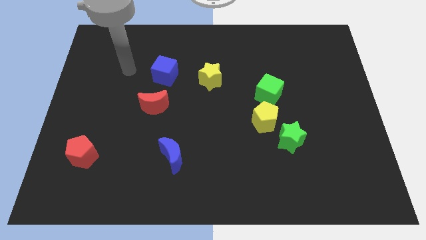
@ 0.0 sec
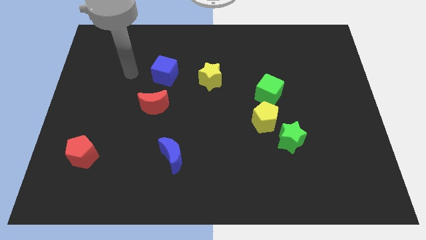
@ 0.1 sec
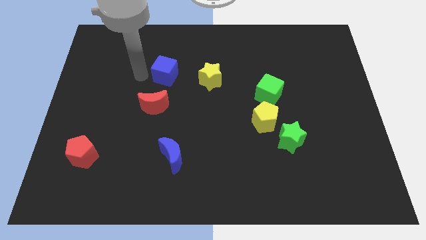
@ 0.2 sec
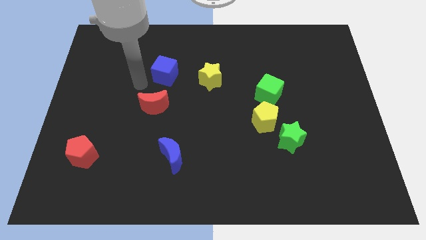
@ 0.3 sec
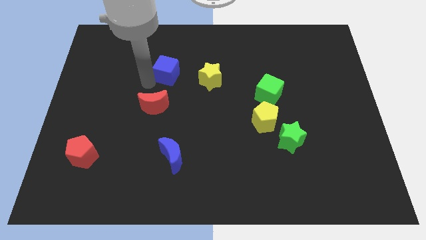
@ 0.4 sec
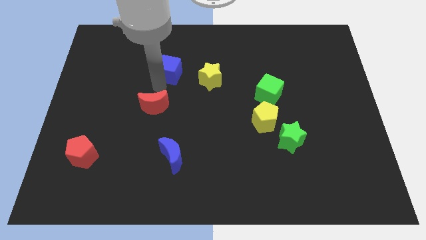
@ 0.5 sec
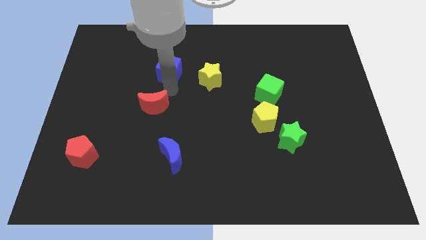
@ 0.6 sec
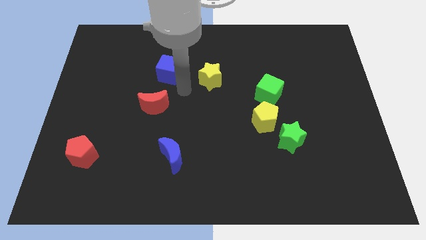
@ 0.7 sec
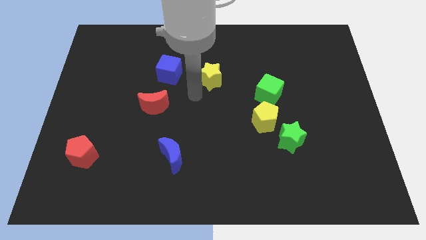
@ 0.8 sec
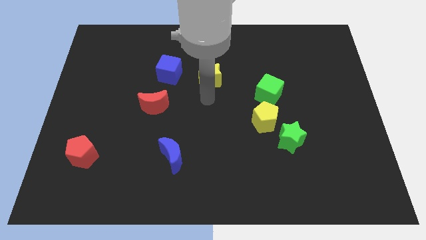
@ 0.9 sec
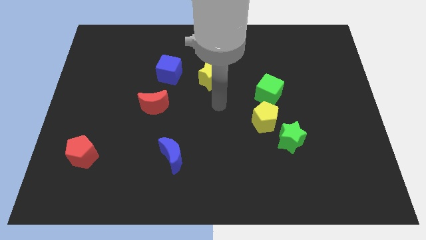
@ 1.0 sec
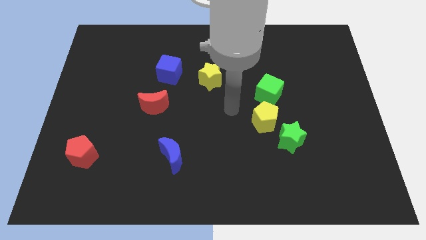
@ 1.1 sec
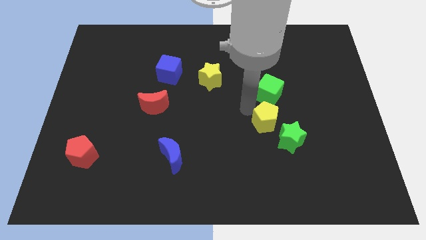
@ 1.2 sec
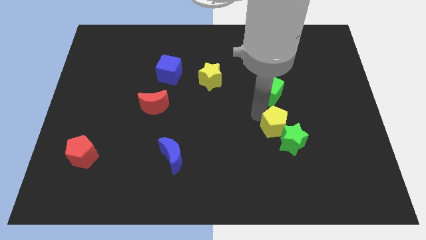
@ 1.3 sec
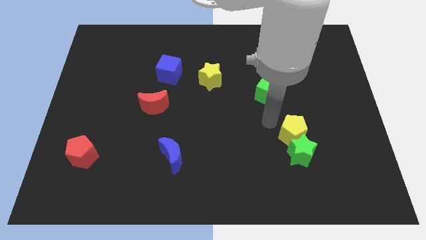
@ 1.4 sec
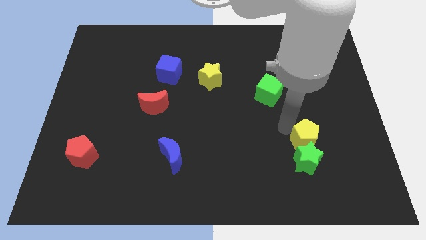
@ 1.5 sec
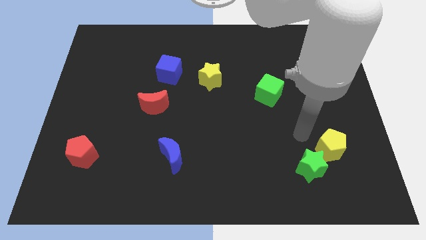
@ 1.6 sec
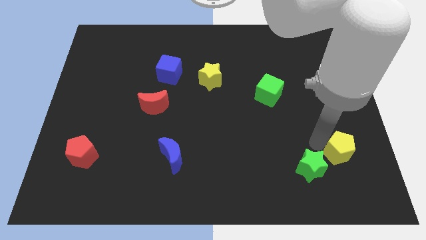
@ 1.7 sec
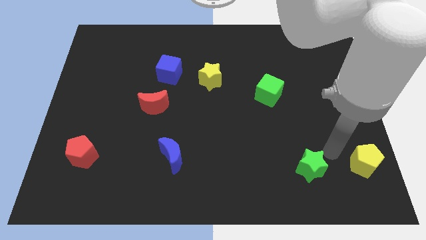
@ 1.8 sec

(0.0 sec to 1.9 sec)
move the green star away from the yellow pentagon

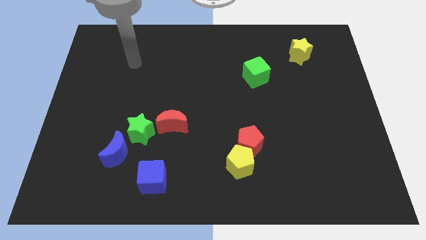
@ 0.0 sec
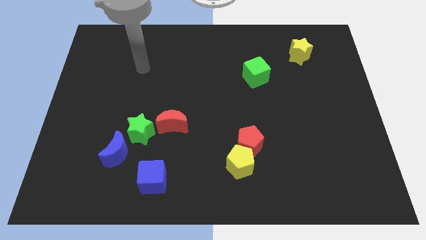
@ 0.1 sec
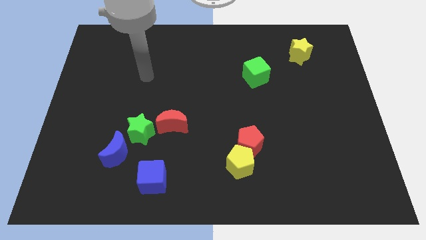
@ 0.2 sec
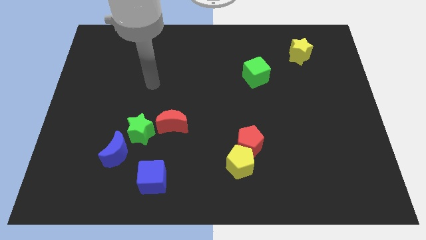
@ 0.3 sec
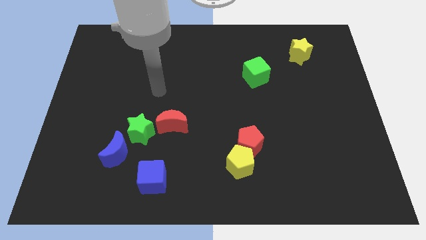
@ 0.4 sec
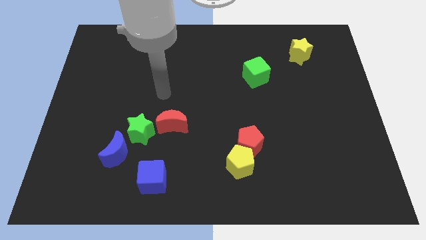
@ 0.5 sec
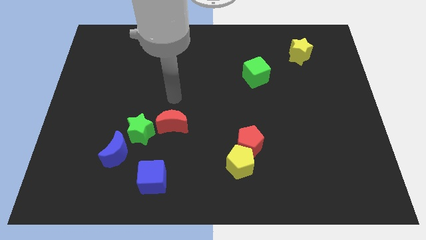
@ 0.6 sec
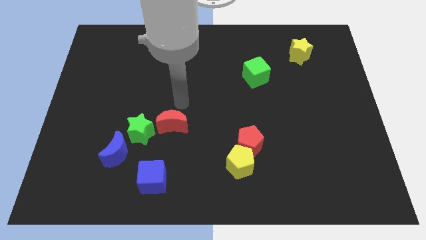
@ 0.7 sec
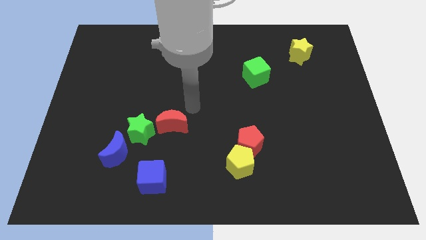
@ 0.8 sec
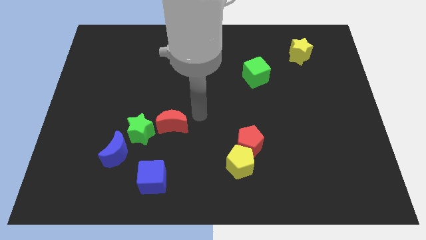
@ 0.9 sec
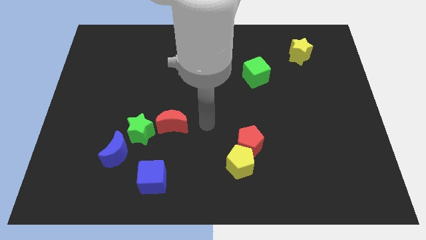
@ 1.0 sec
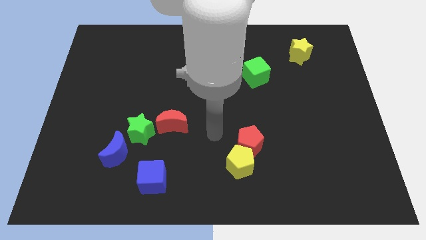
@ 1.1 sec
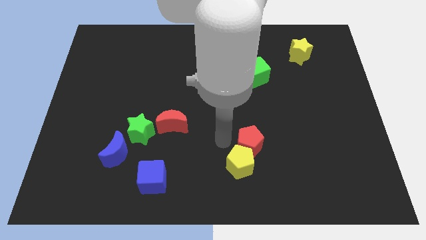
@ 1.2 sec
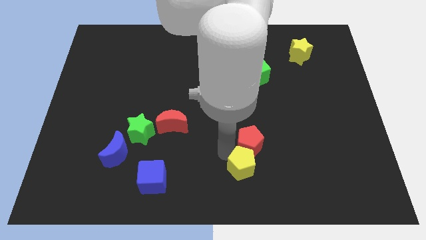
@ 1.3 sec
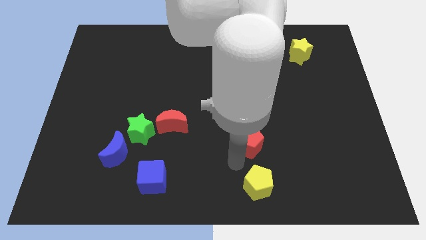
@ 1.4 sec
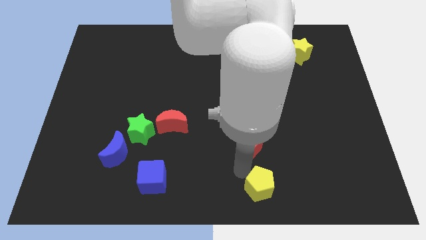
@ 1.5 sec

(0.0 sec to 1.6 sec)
pull the red pentagon apart from the yellow pentagon

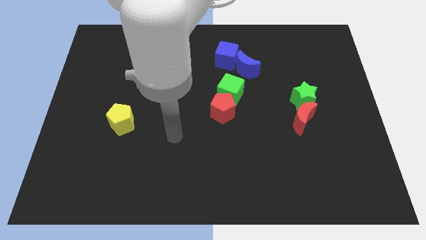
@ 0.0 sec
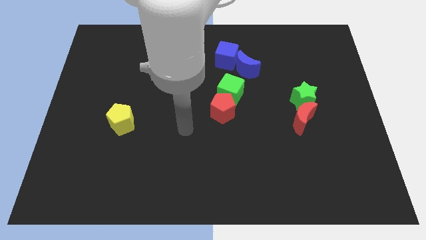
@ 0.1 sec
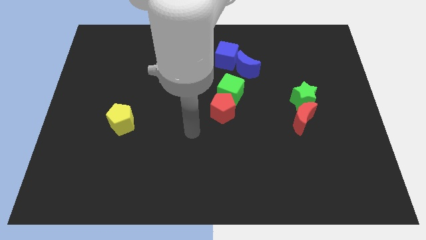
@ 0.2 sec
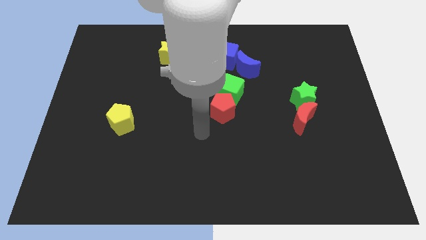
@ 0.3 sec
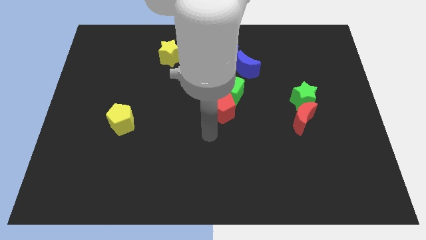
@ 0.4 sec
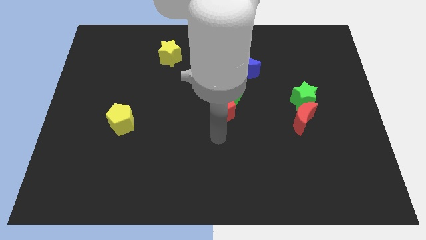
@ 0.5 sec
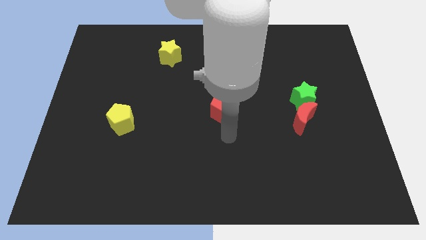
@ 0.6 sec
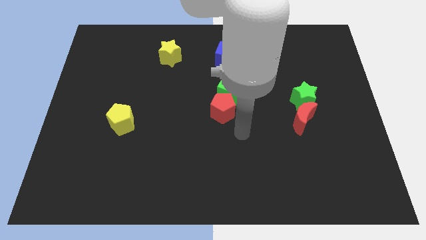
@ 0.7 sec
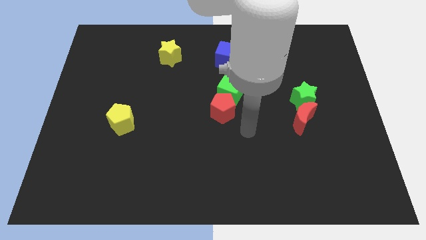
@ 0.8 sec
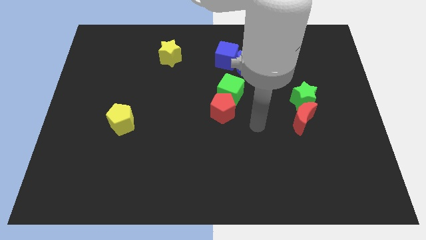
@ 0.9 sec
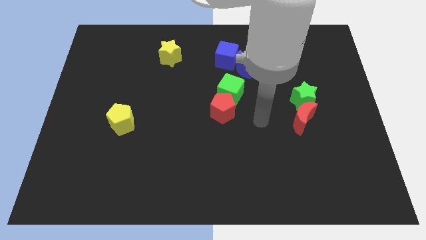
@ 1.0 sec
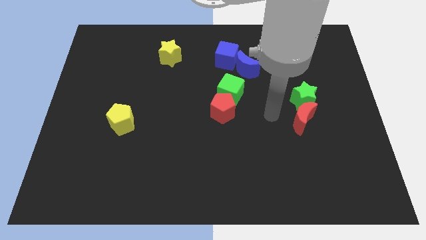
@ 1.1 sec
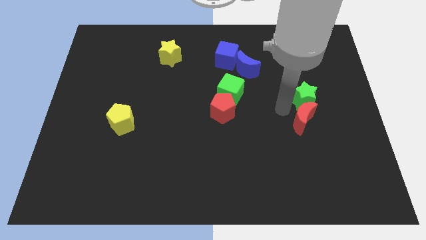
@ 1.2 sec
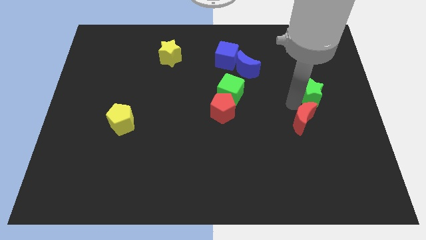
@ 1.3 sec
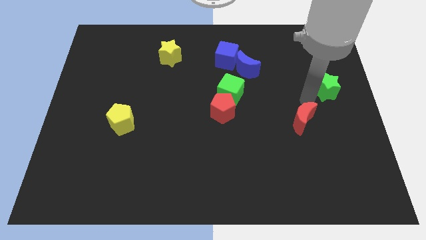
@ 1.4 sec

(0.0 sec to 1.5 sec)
pull the red moon apart from the green star

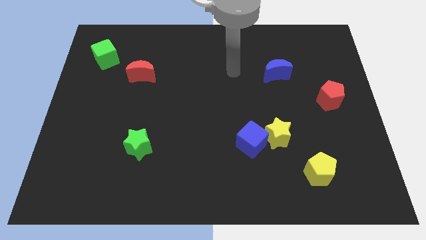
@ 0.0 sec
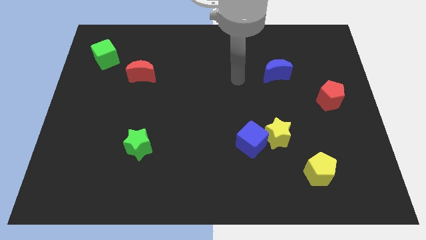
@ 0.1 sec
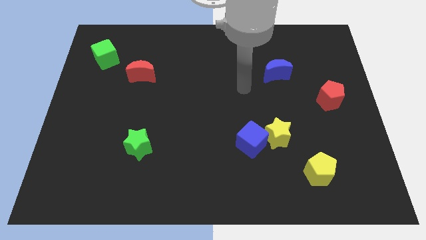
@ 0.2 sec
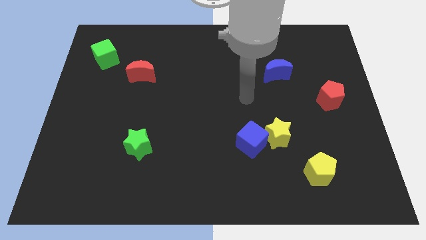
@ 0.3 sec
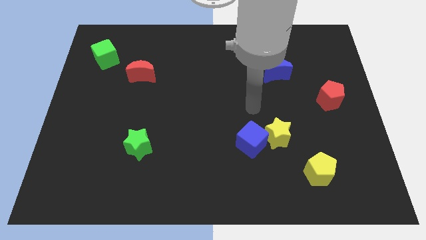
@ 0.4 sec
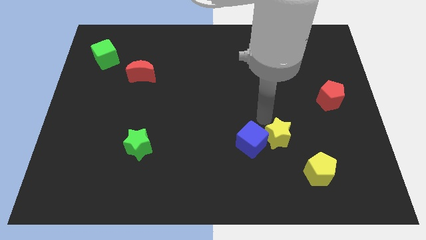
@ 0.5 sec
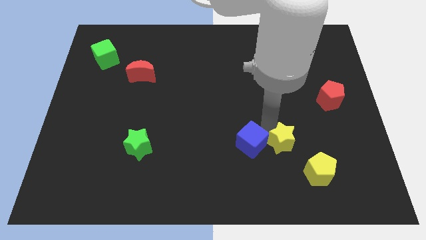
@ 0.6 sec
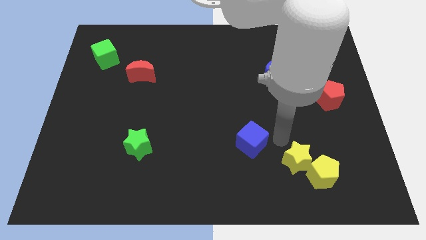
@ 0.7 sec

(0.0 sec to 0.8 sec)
move the blue cube away from the yellow star

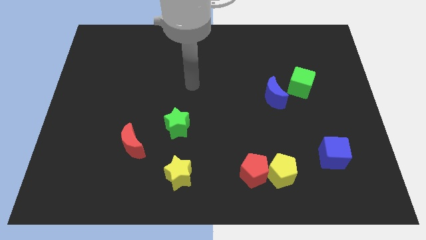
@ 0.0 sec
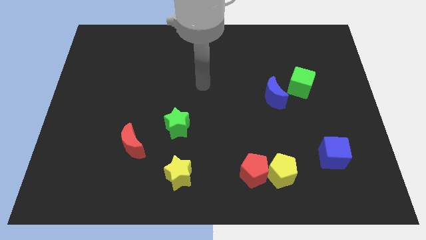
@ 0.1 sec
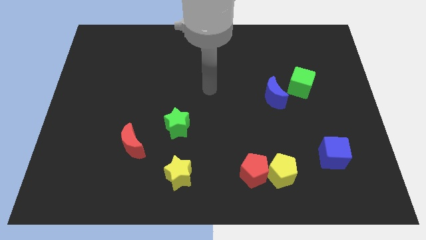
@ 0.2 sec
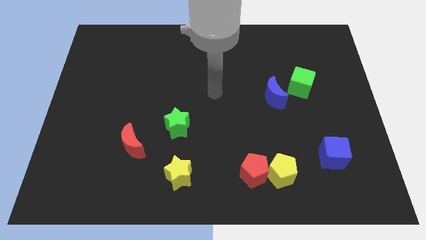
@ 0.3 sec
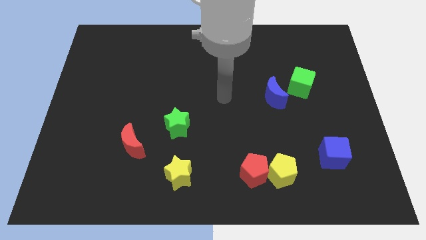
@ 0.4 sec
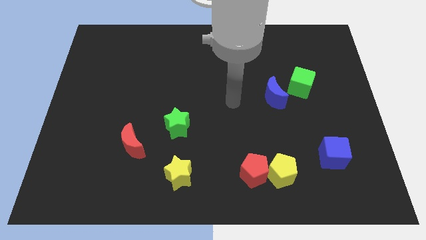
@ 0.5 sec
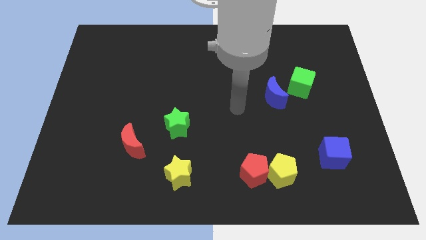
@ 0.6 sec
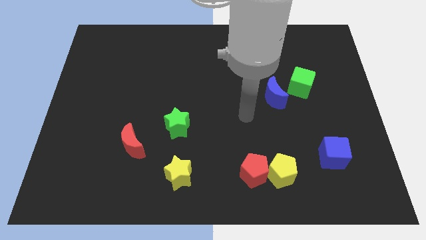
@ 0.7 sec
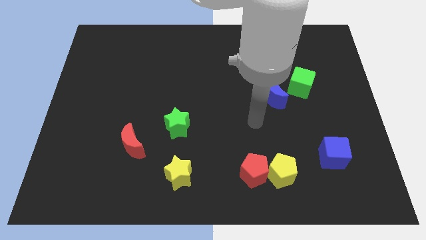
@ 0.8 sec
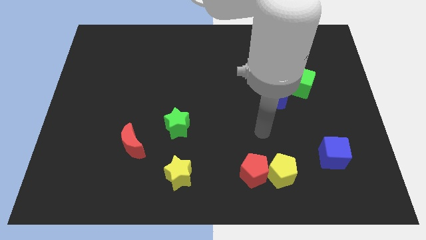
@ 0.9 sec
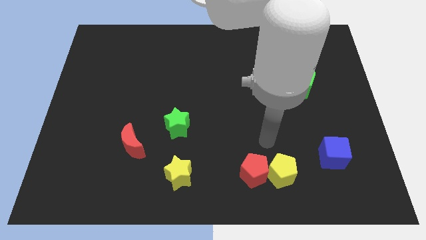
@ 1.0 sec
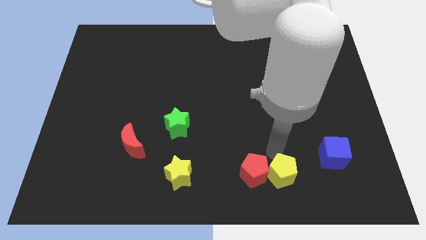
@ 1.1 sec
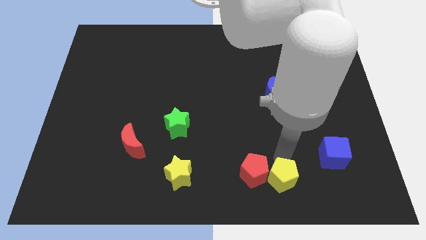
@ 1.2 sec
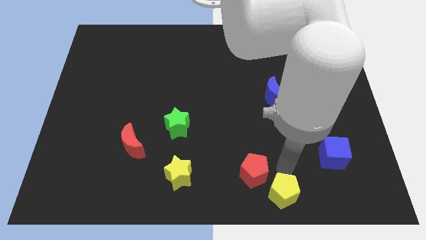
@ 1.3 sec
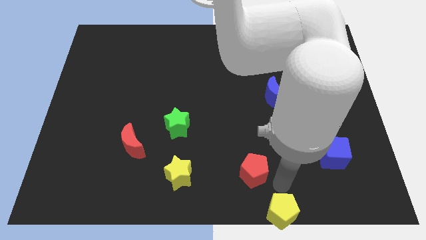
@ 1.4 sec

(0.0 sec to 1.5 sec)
move the red pentagon away from the yellow pentagon

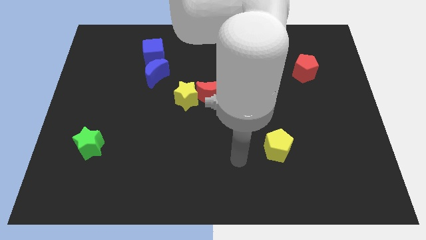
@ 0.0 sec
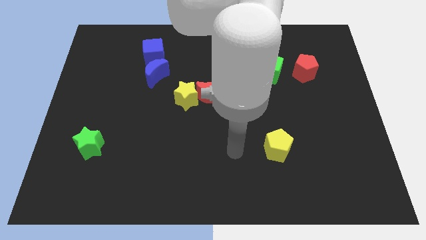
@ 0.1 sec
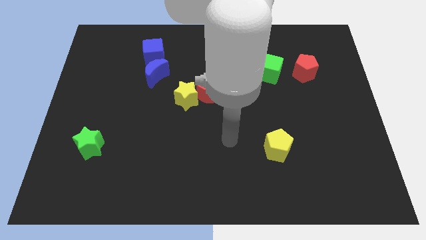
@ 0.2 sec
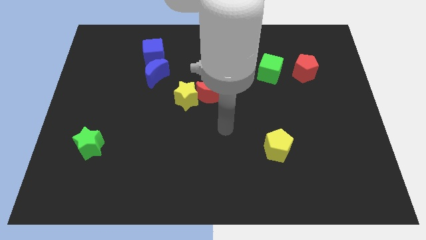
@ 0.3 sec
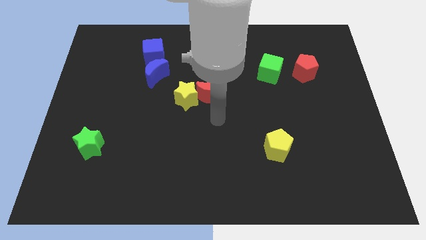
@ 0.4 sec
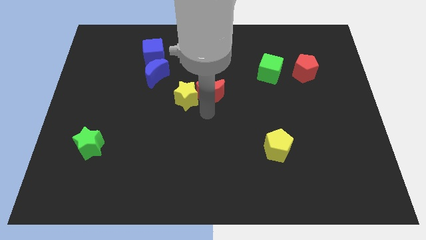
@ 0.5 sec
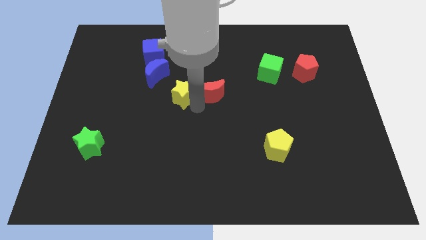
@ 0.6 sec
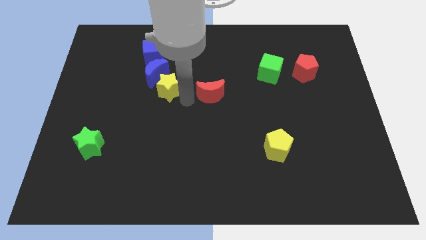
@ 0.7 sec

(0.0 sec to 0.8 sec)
pull the red moon apart from the yellow star

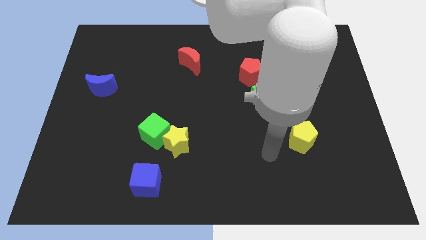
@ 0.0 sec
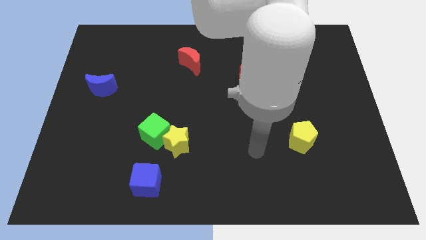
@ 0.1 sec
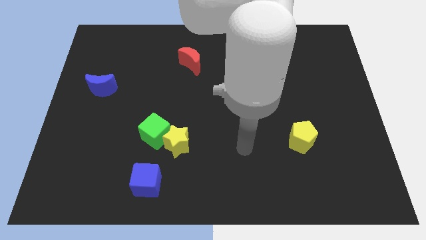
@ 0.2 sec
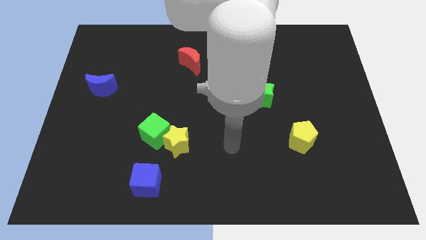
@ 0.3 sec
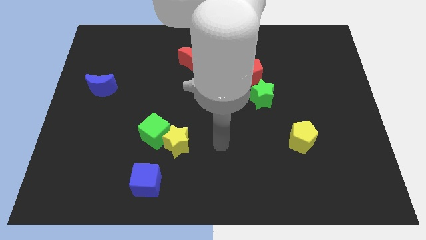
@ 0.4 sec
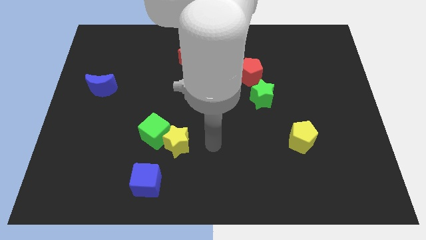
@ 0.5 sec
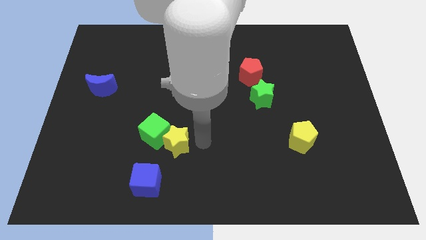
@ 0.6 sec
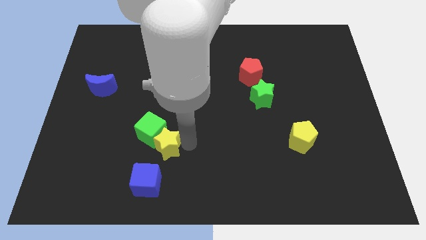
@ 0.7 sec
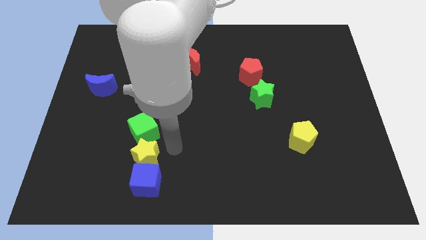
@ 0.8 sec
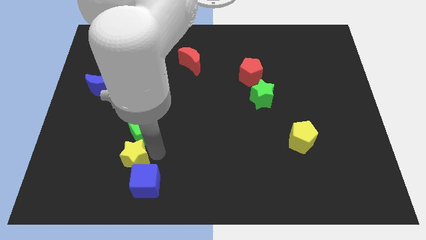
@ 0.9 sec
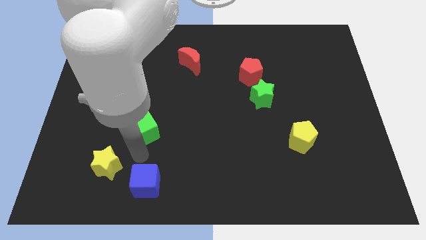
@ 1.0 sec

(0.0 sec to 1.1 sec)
separate the green cube from the yellow star
